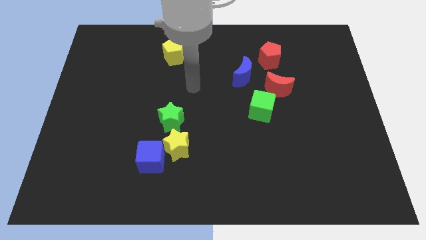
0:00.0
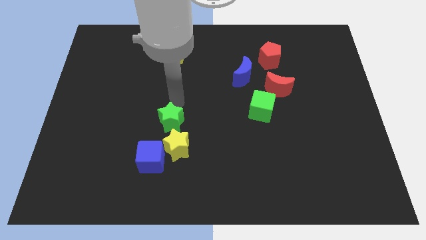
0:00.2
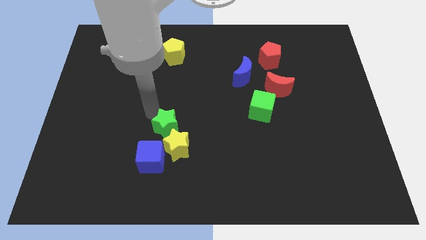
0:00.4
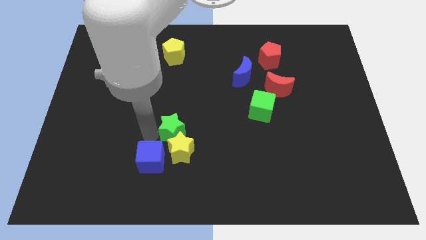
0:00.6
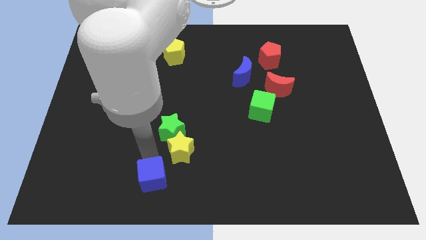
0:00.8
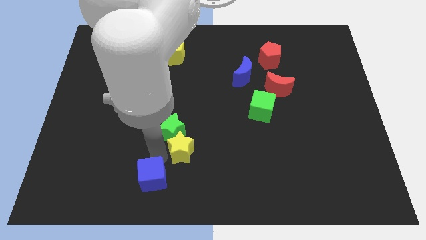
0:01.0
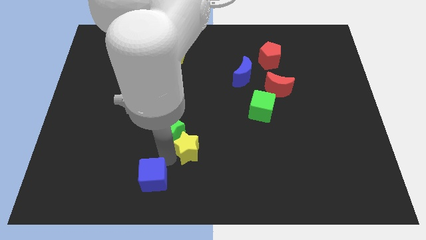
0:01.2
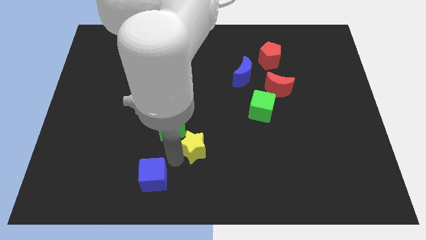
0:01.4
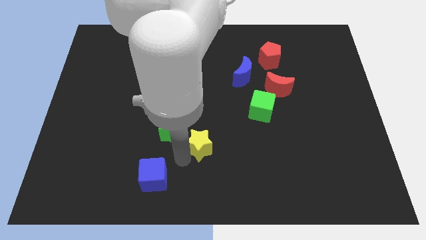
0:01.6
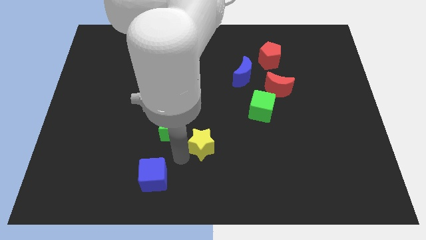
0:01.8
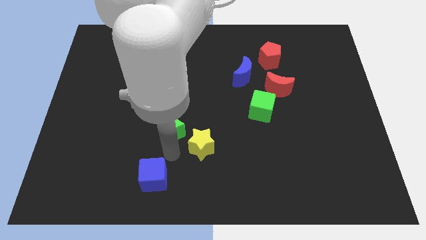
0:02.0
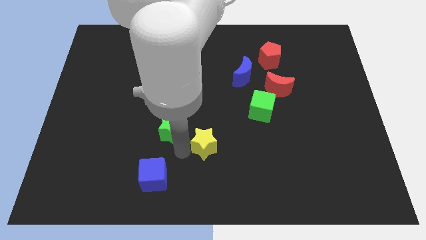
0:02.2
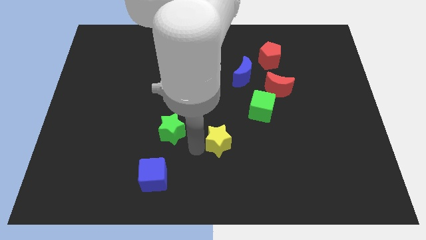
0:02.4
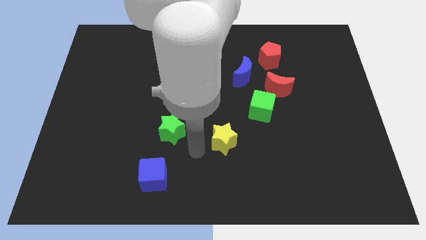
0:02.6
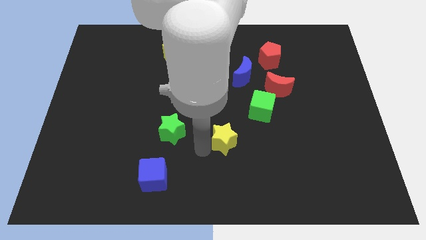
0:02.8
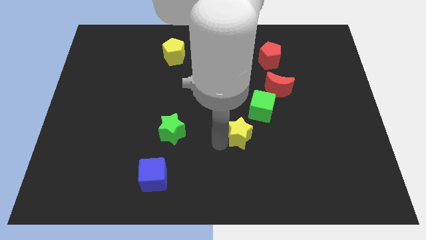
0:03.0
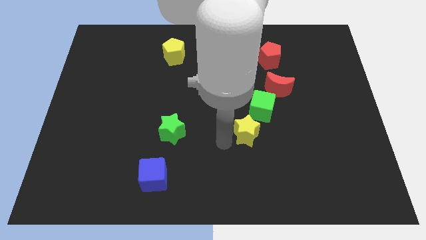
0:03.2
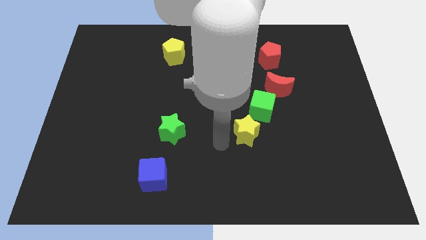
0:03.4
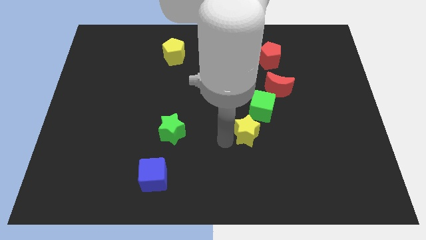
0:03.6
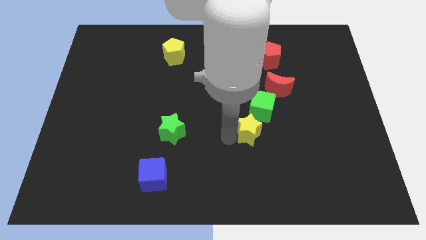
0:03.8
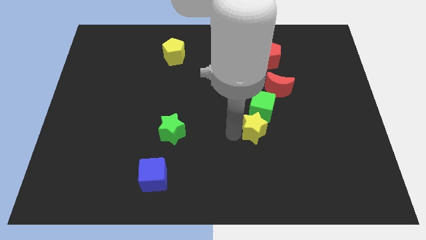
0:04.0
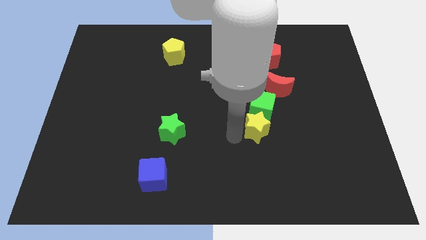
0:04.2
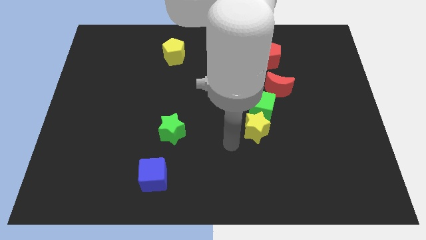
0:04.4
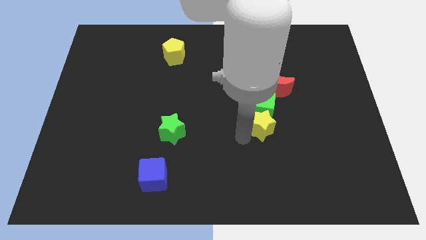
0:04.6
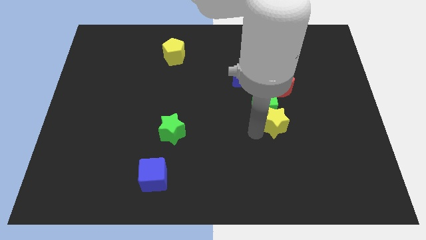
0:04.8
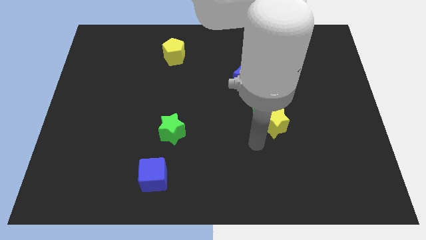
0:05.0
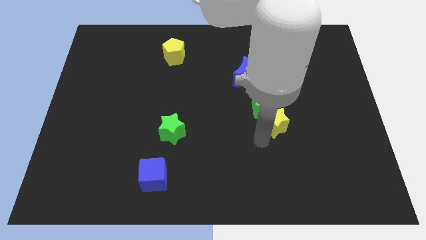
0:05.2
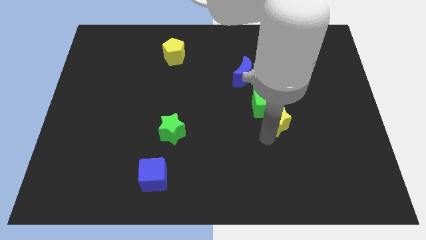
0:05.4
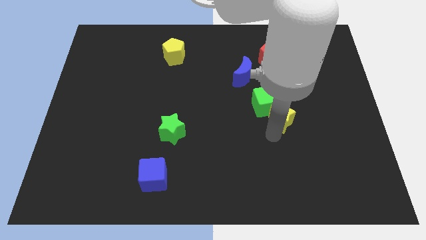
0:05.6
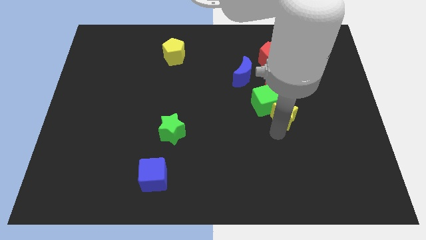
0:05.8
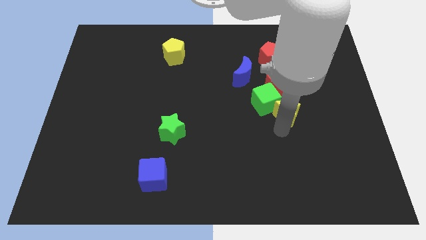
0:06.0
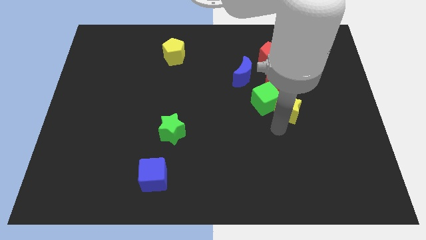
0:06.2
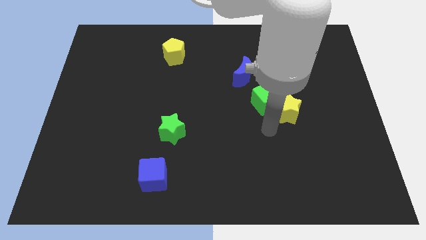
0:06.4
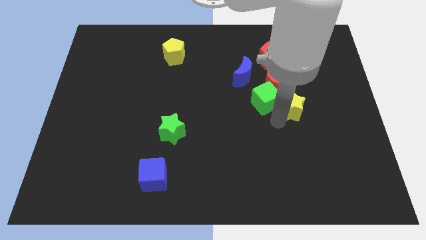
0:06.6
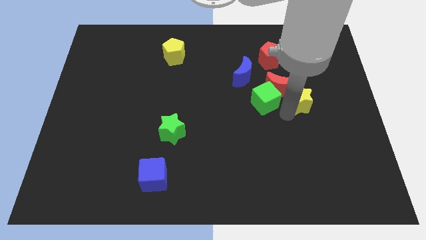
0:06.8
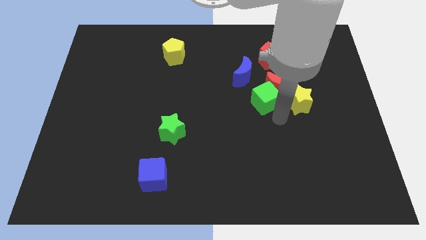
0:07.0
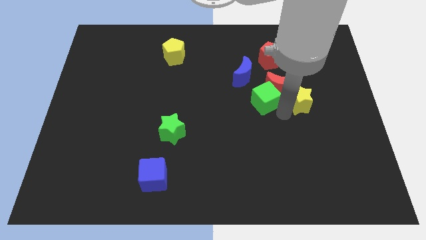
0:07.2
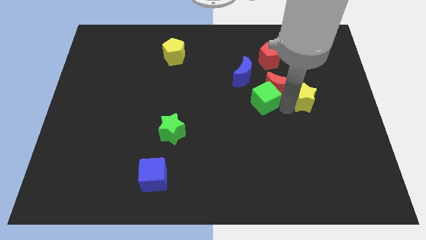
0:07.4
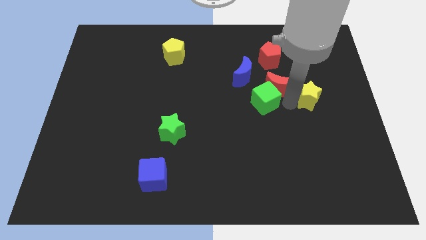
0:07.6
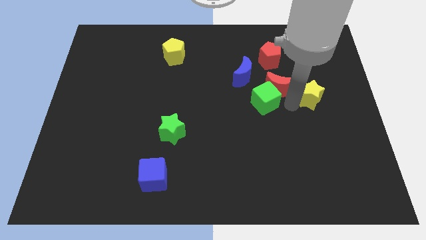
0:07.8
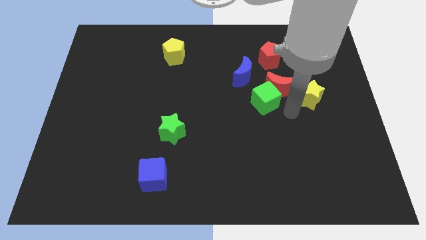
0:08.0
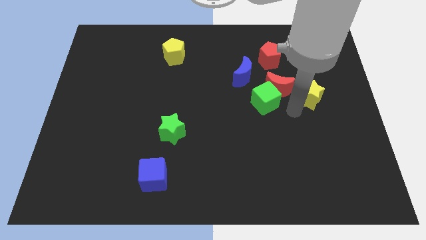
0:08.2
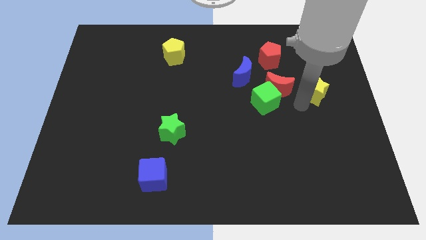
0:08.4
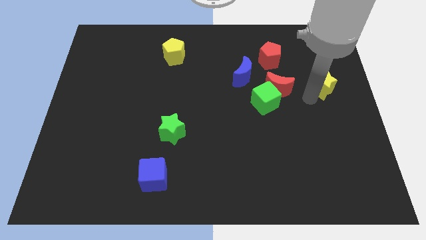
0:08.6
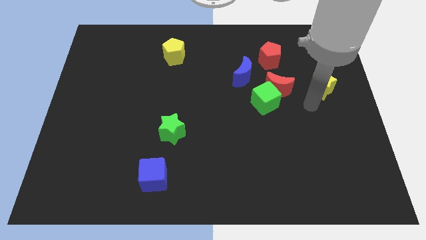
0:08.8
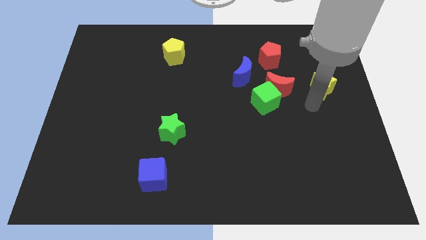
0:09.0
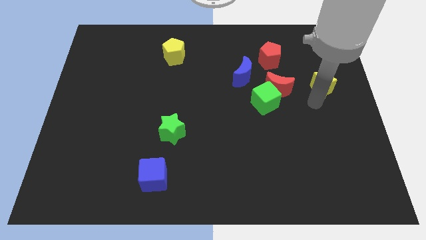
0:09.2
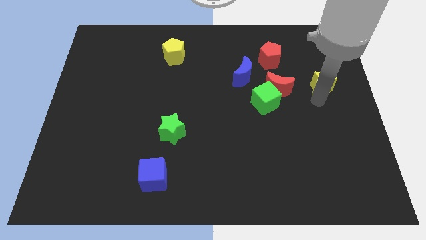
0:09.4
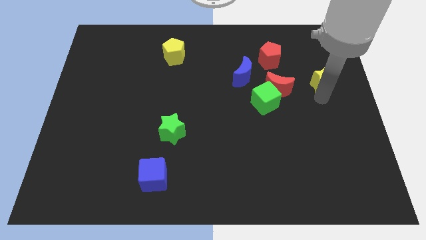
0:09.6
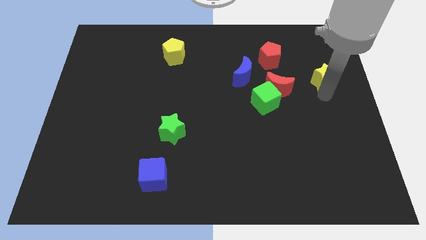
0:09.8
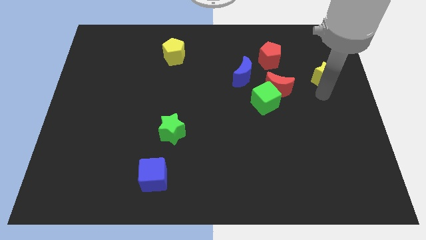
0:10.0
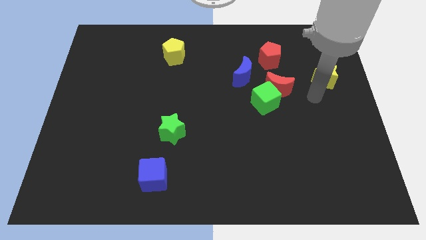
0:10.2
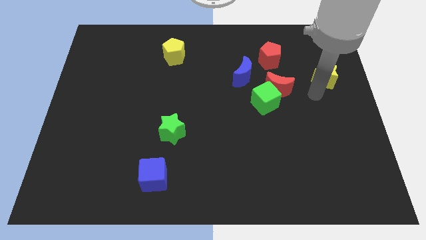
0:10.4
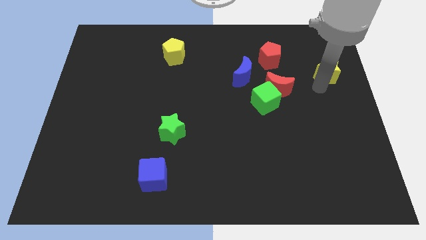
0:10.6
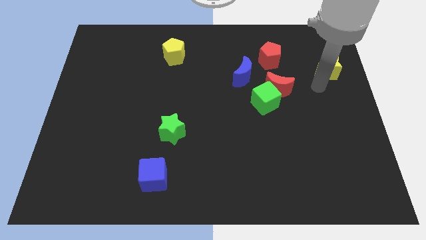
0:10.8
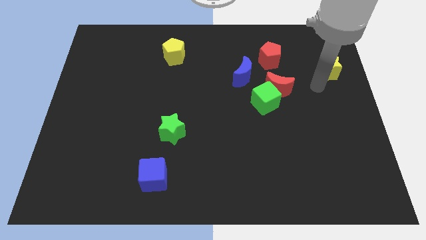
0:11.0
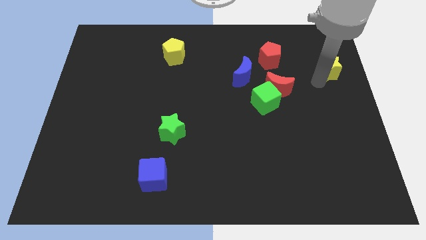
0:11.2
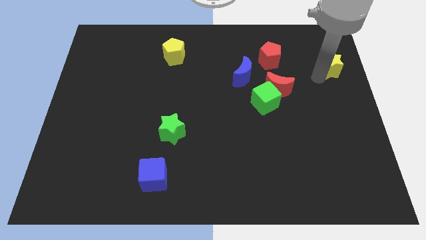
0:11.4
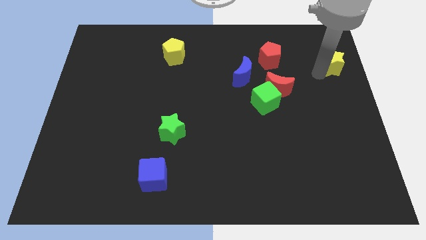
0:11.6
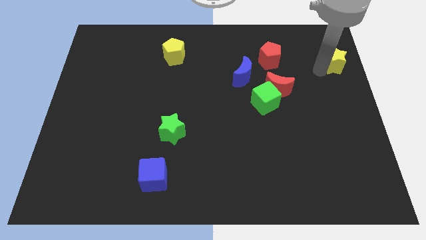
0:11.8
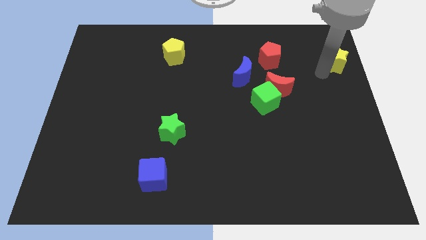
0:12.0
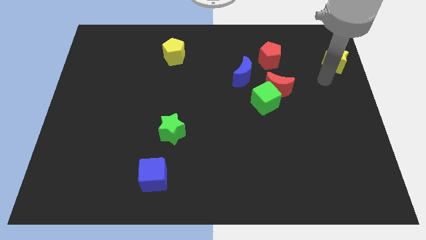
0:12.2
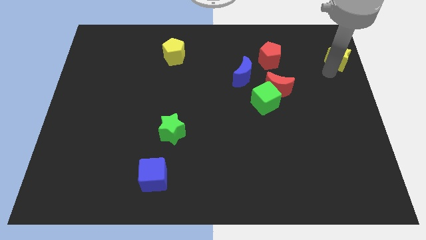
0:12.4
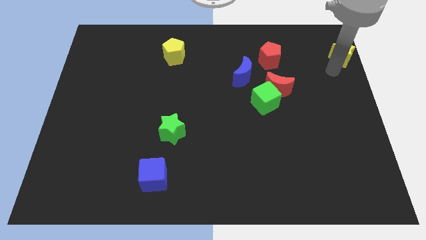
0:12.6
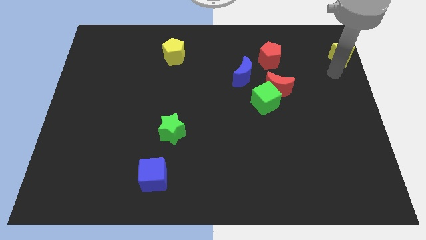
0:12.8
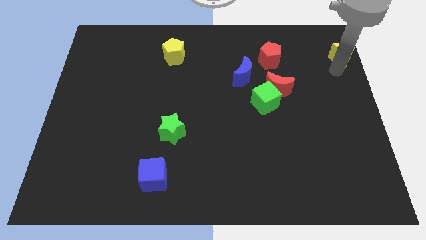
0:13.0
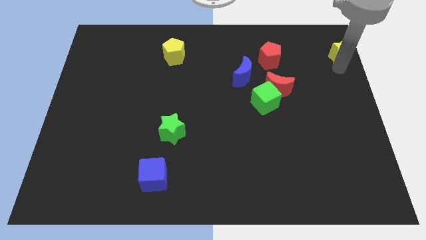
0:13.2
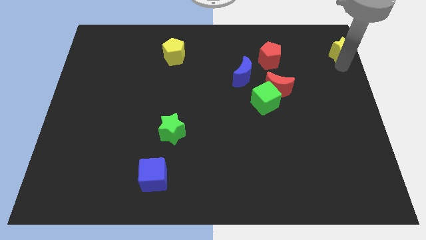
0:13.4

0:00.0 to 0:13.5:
push the yellow star to the top right corner
